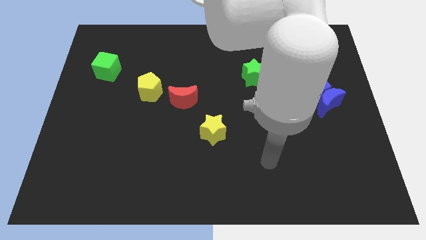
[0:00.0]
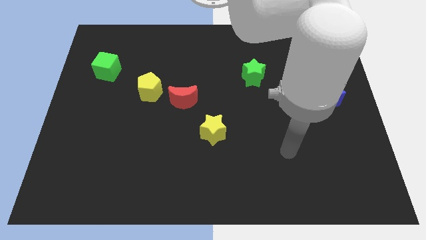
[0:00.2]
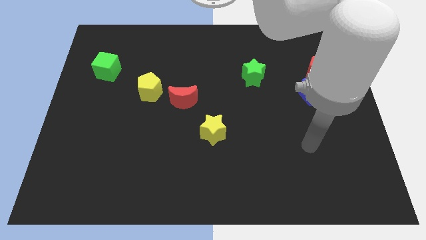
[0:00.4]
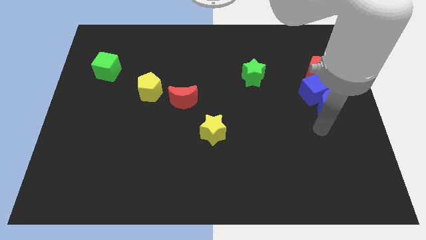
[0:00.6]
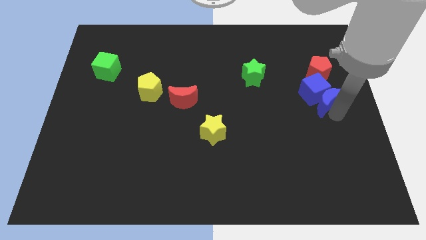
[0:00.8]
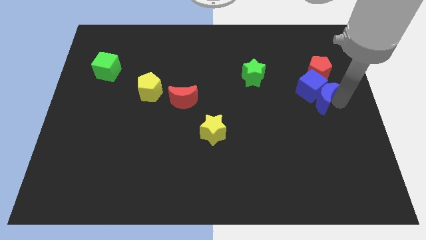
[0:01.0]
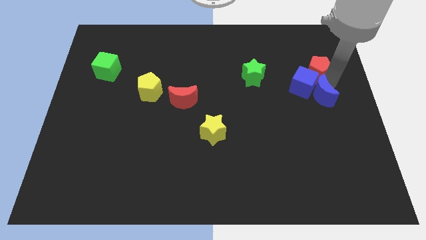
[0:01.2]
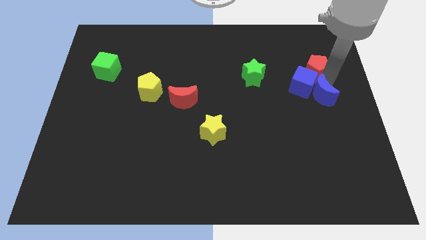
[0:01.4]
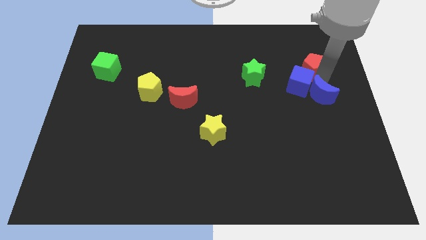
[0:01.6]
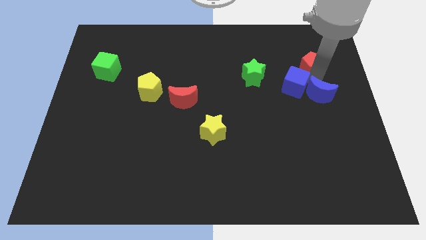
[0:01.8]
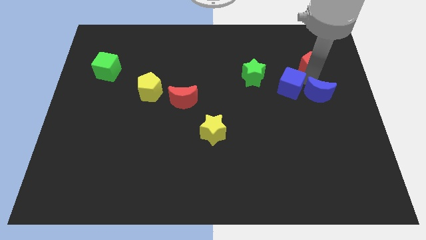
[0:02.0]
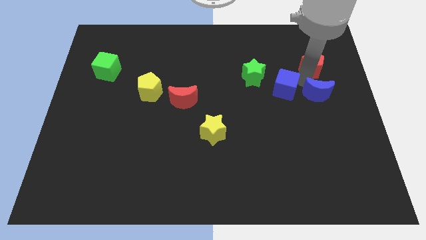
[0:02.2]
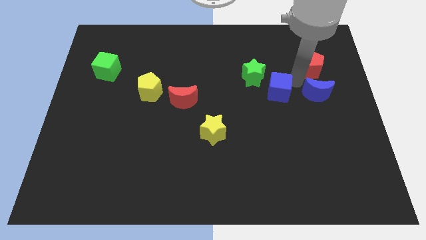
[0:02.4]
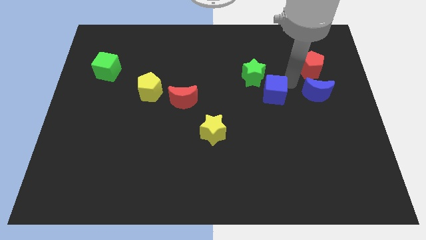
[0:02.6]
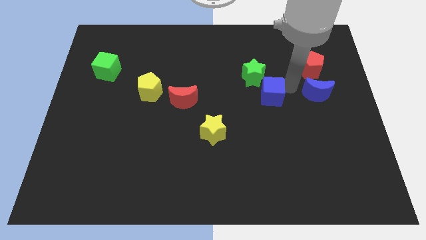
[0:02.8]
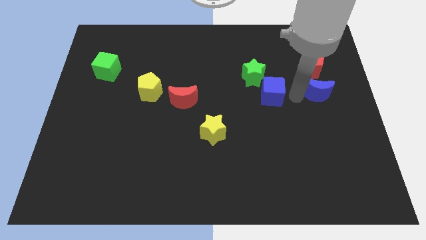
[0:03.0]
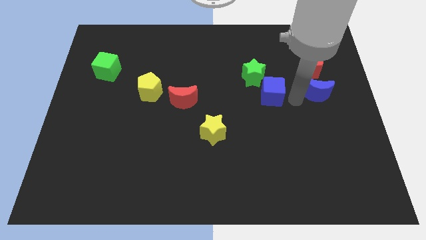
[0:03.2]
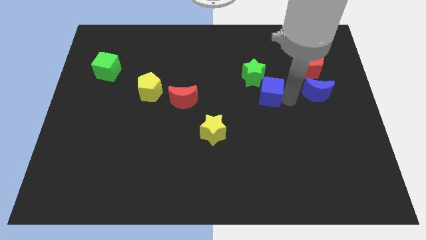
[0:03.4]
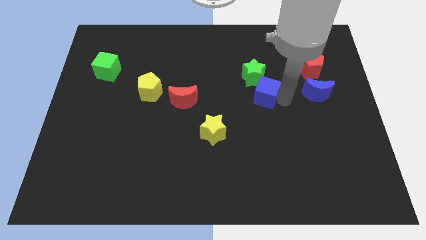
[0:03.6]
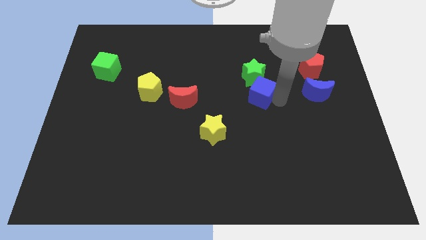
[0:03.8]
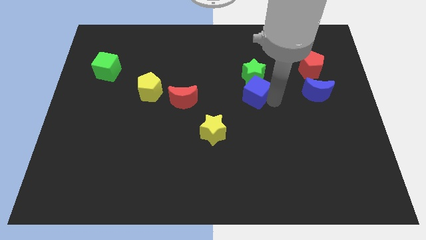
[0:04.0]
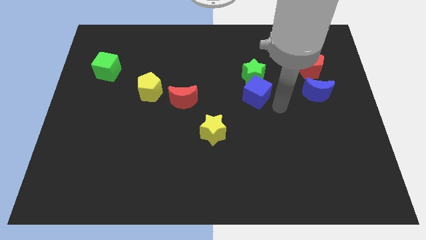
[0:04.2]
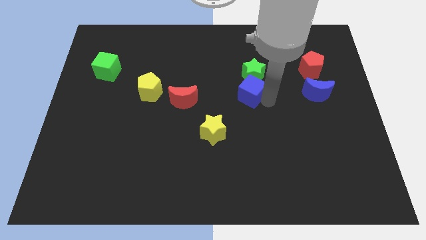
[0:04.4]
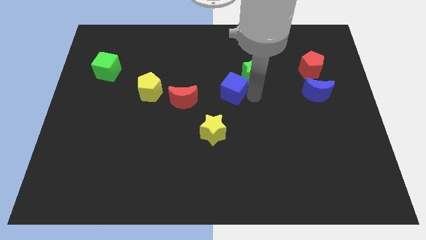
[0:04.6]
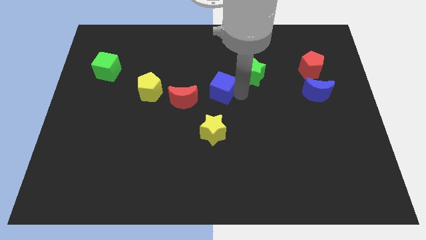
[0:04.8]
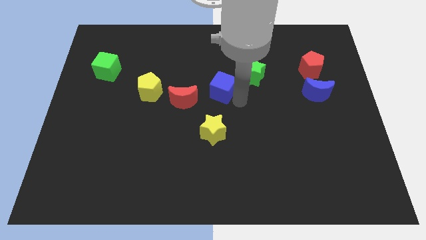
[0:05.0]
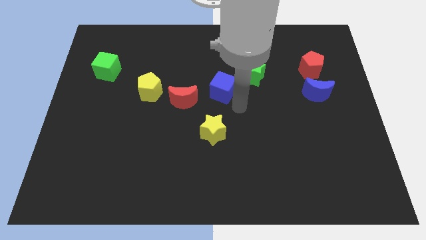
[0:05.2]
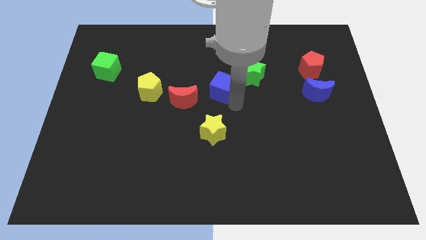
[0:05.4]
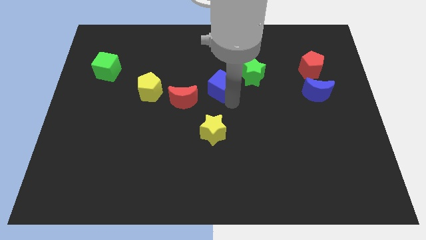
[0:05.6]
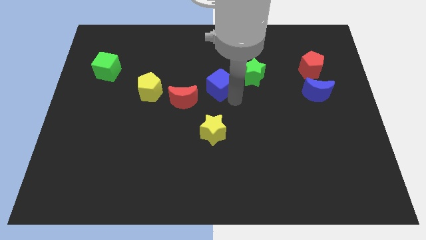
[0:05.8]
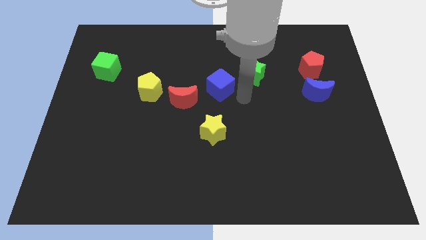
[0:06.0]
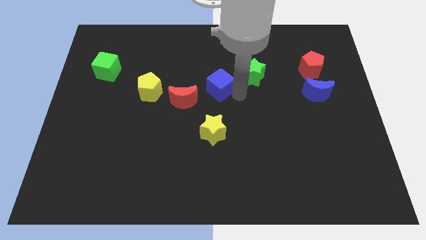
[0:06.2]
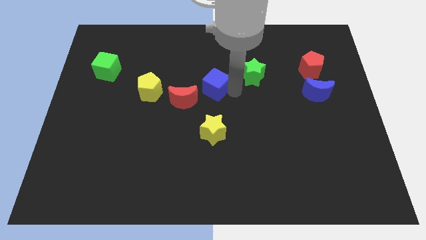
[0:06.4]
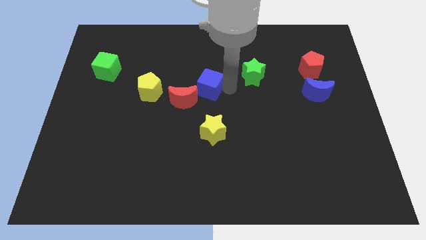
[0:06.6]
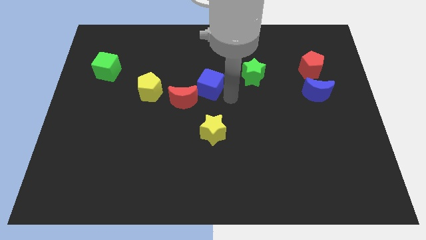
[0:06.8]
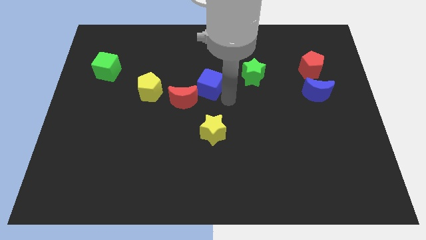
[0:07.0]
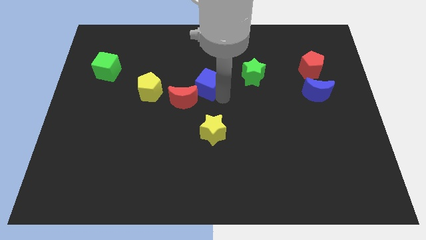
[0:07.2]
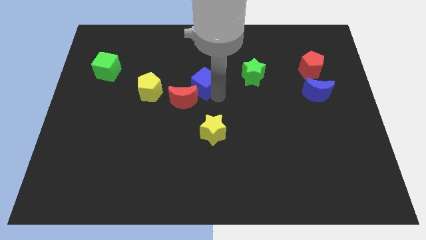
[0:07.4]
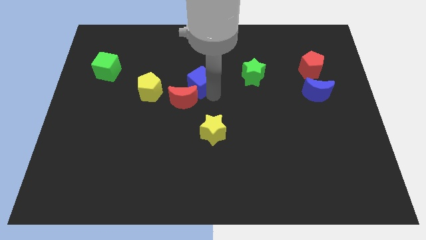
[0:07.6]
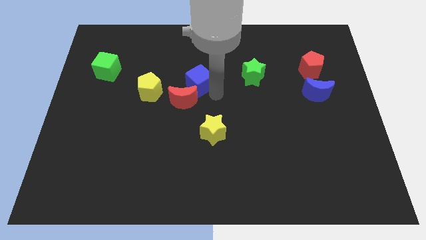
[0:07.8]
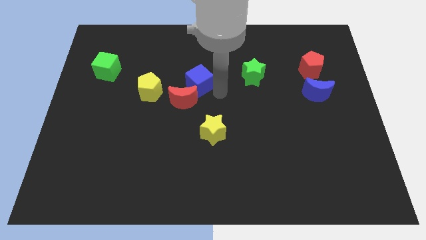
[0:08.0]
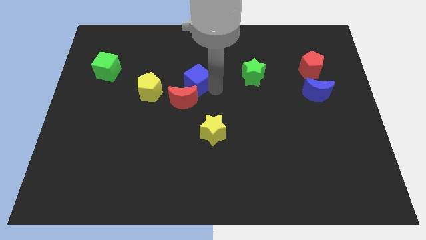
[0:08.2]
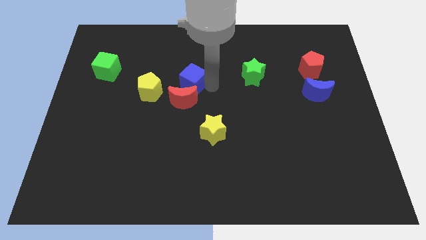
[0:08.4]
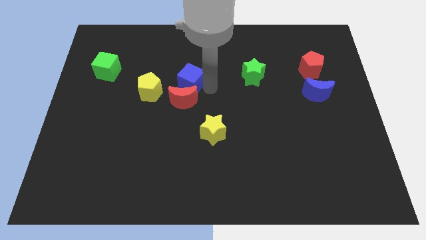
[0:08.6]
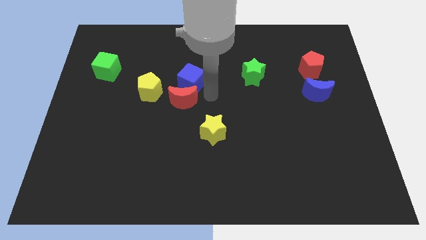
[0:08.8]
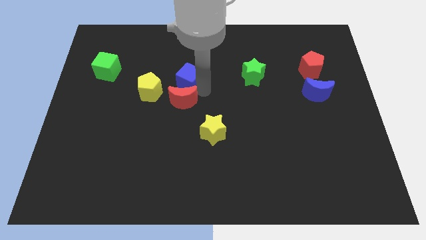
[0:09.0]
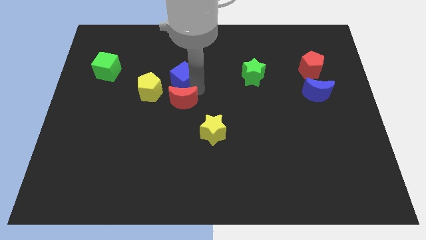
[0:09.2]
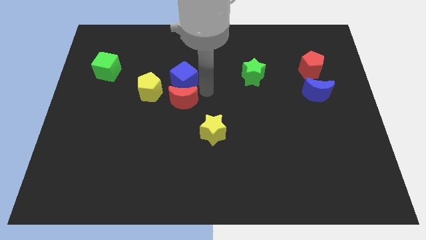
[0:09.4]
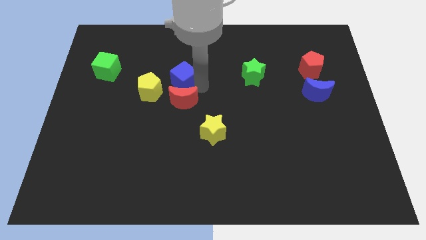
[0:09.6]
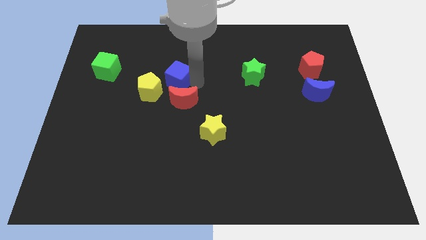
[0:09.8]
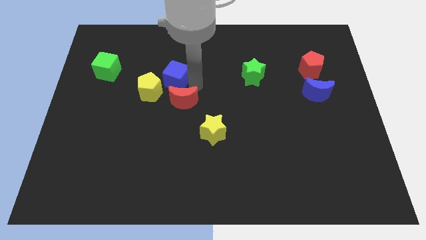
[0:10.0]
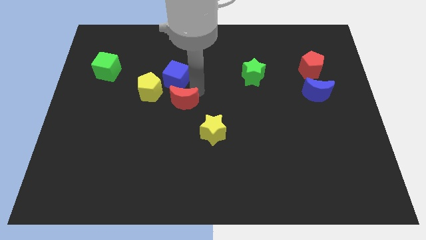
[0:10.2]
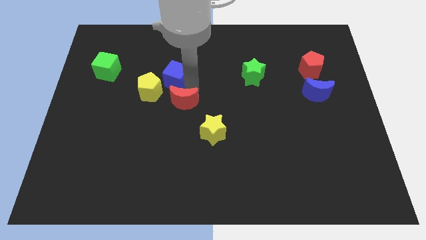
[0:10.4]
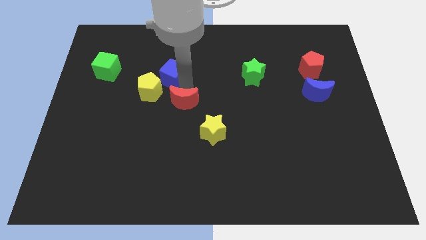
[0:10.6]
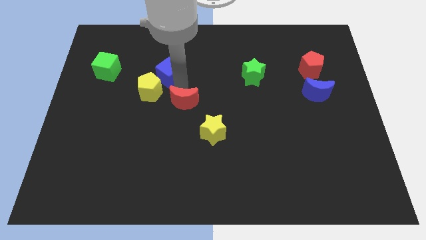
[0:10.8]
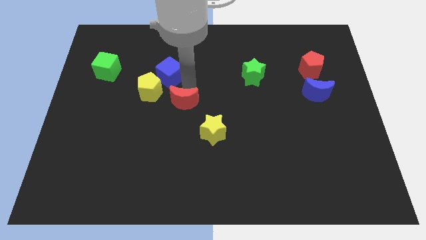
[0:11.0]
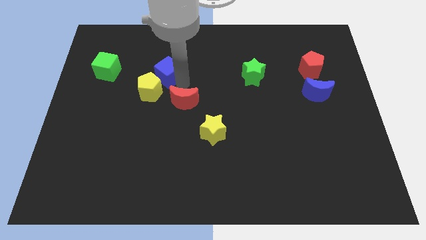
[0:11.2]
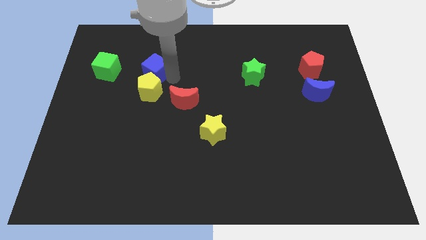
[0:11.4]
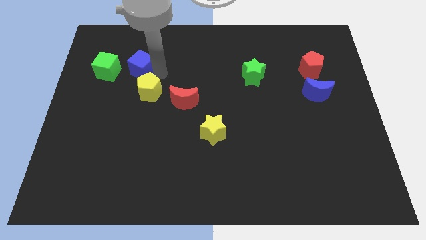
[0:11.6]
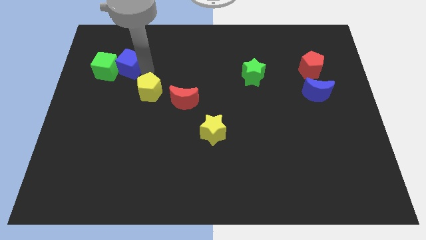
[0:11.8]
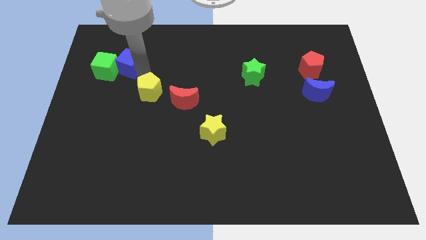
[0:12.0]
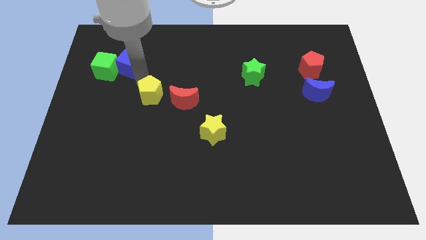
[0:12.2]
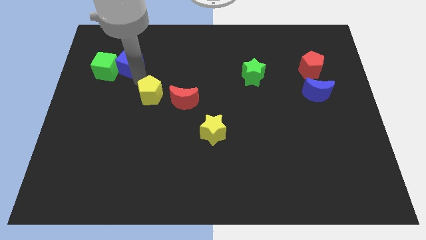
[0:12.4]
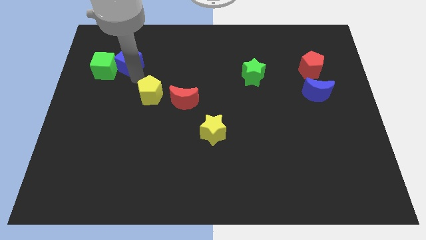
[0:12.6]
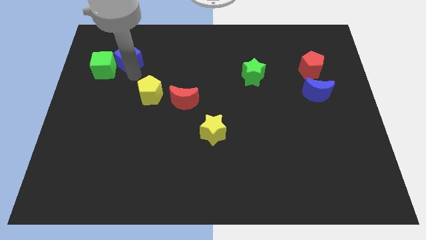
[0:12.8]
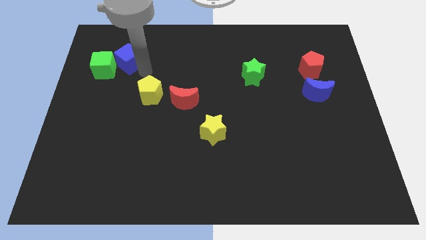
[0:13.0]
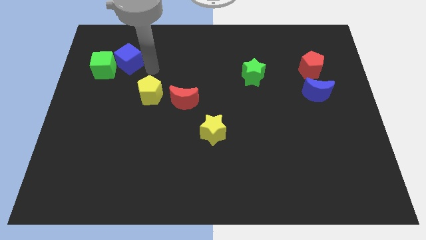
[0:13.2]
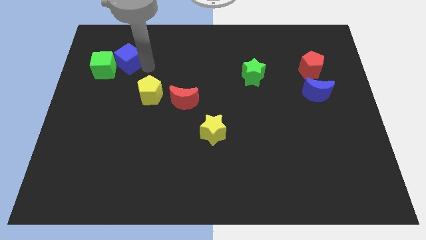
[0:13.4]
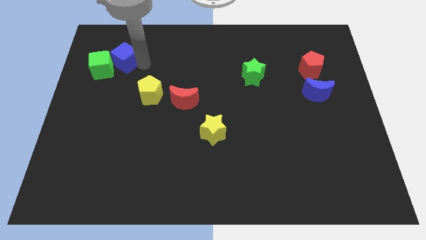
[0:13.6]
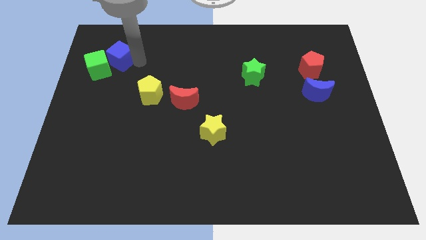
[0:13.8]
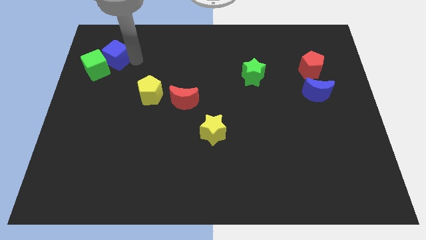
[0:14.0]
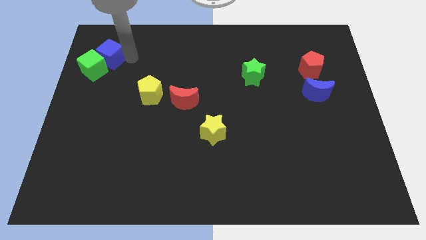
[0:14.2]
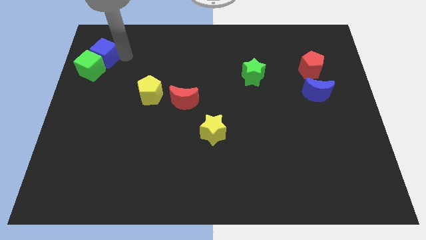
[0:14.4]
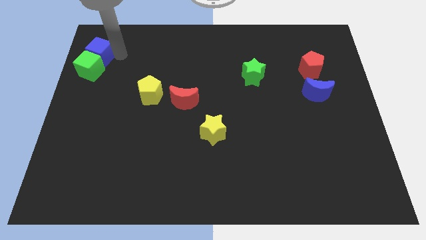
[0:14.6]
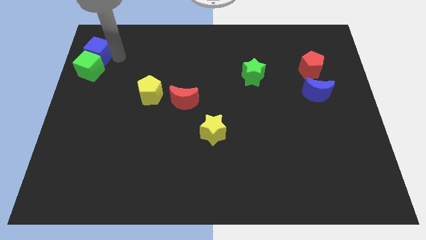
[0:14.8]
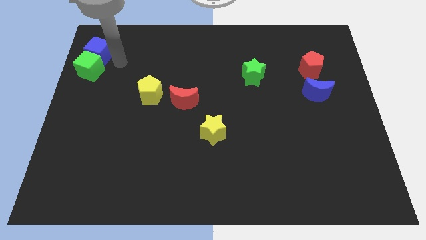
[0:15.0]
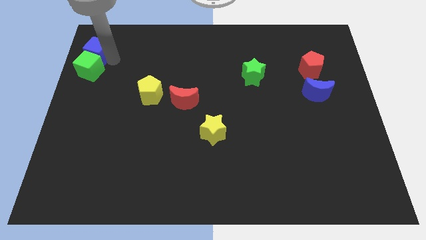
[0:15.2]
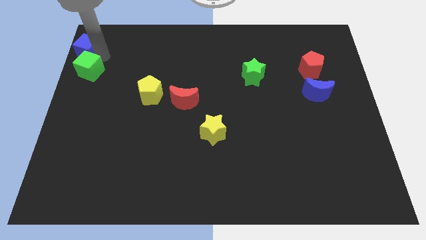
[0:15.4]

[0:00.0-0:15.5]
move the blue cube to the top left of the board
